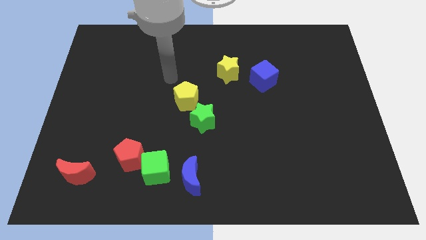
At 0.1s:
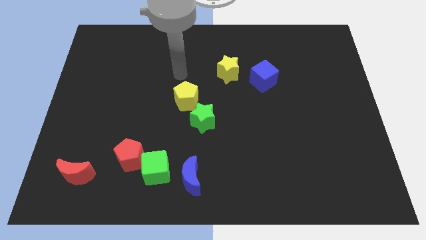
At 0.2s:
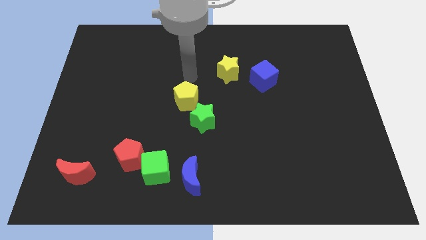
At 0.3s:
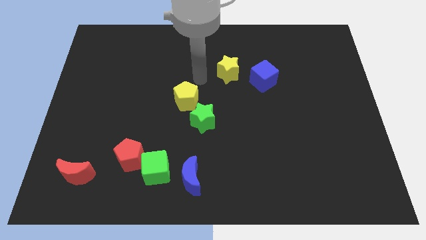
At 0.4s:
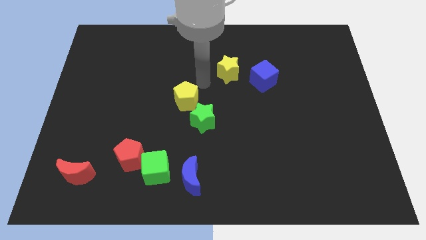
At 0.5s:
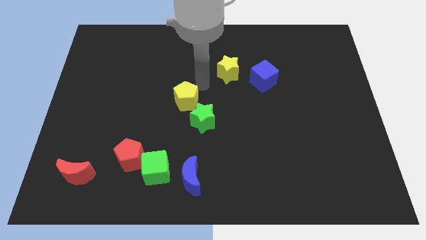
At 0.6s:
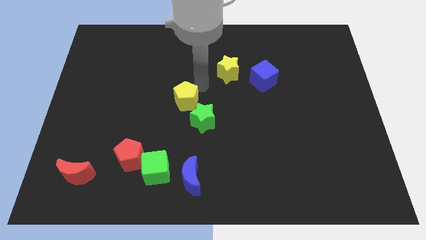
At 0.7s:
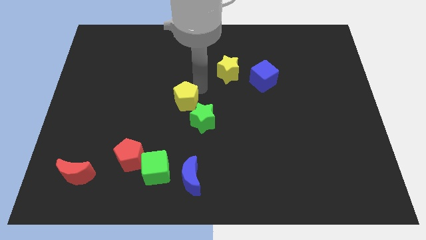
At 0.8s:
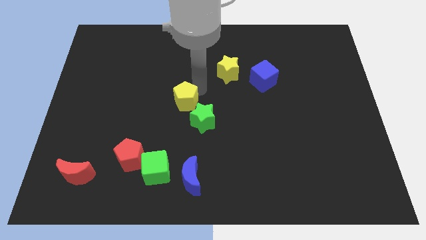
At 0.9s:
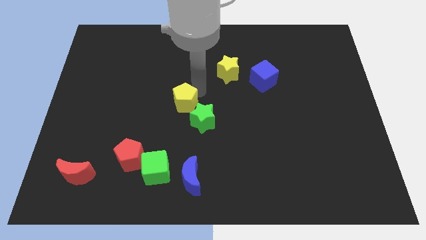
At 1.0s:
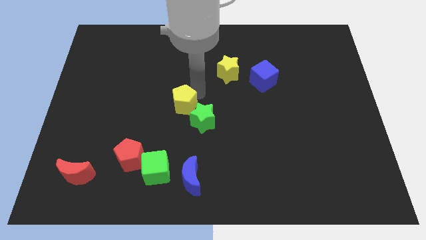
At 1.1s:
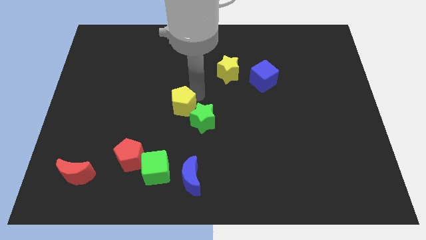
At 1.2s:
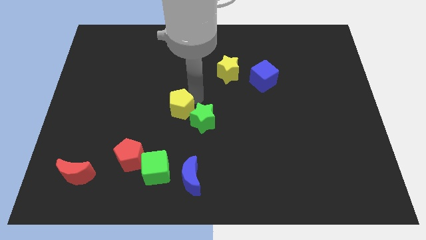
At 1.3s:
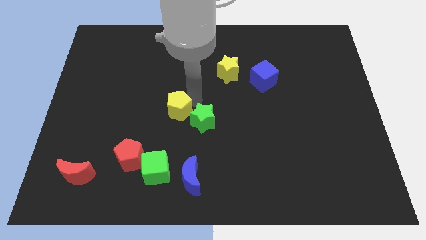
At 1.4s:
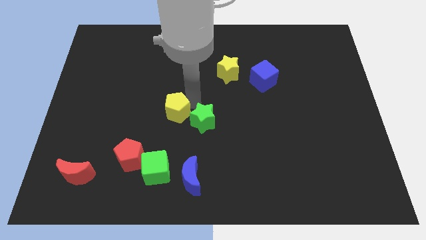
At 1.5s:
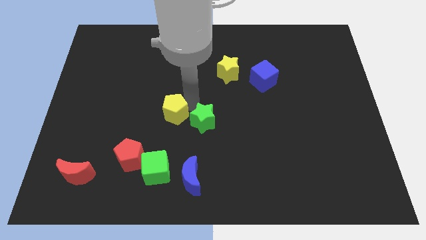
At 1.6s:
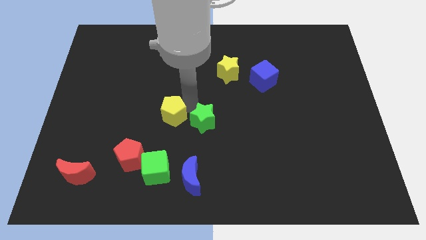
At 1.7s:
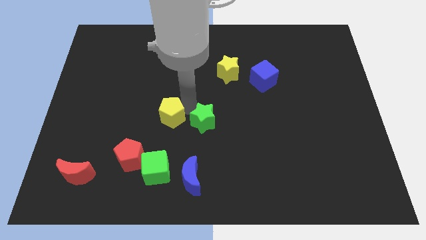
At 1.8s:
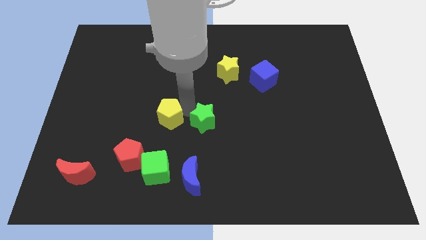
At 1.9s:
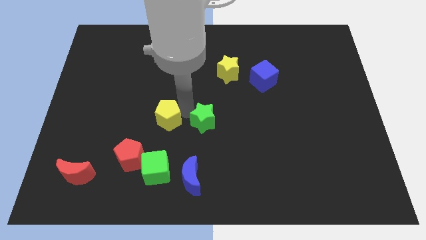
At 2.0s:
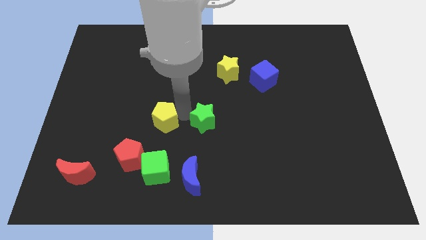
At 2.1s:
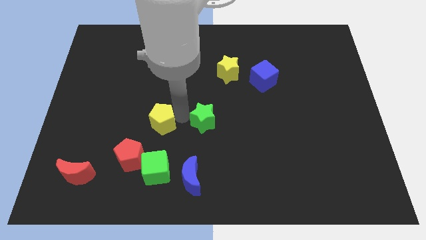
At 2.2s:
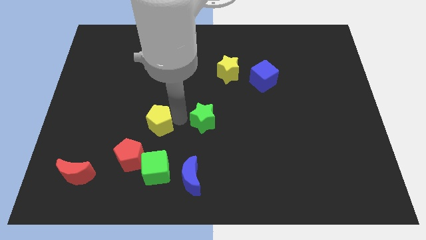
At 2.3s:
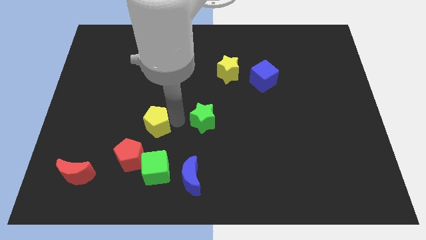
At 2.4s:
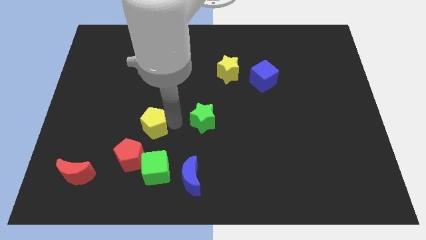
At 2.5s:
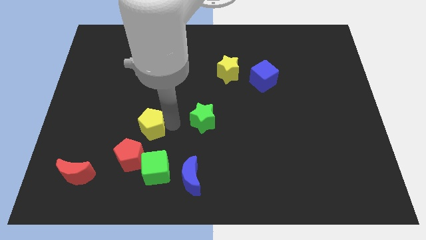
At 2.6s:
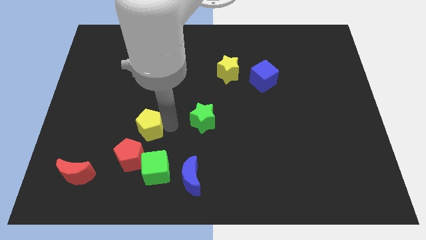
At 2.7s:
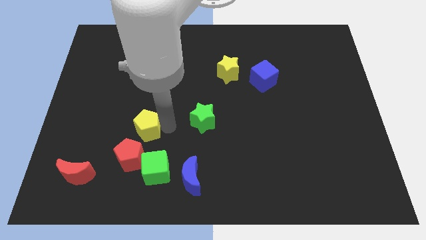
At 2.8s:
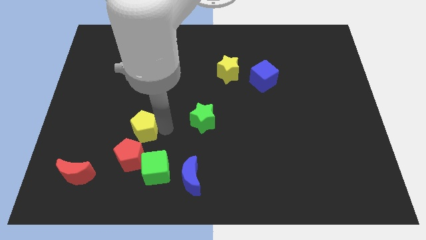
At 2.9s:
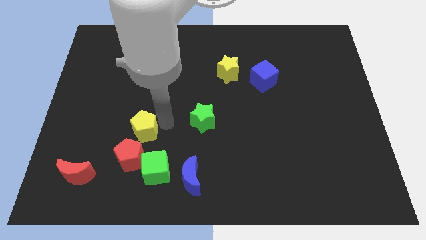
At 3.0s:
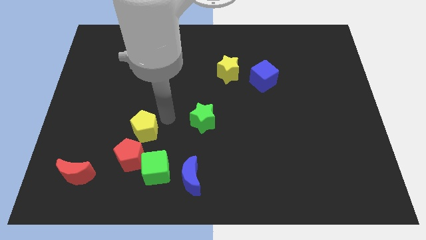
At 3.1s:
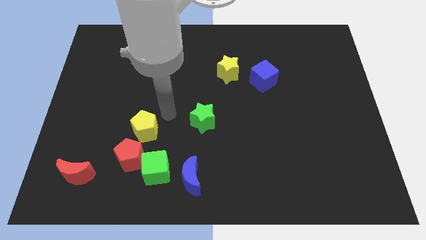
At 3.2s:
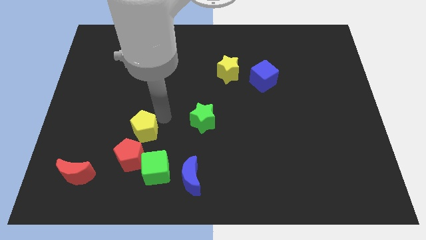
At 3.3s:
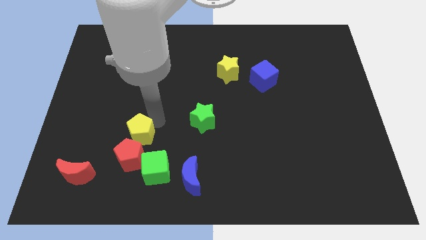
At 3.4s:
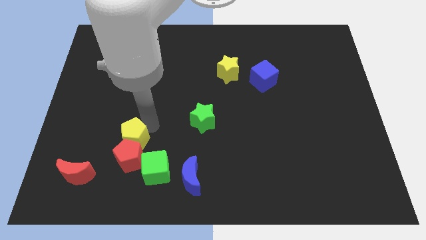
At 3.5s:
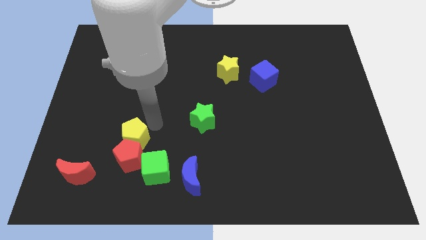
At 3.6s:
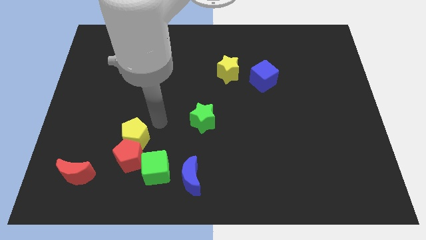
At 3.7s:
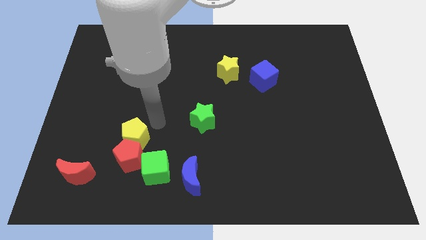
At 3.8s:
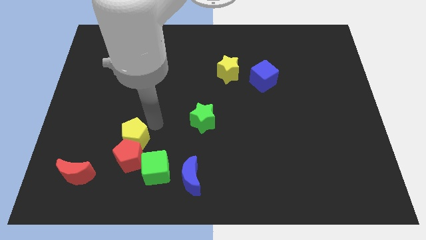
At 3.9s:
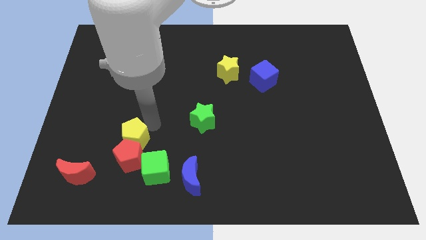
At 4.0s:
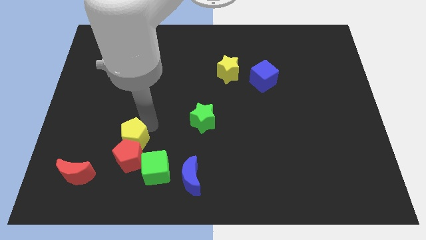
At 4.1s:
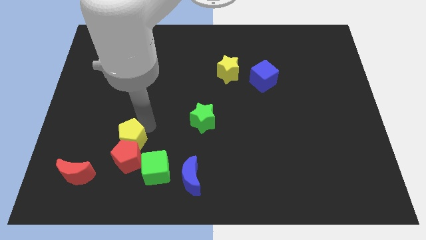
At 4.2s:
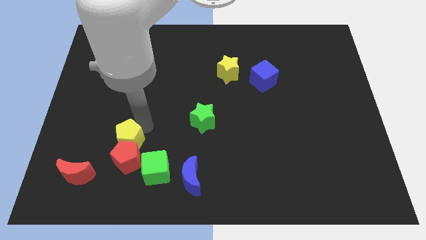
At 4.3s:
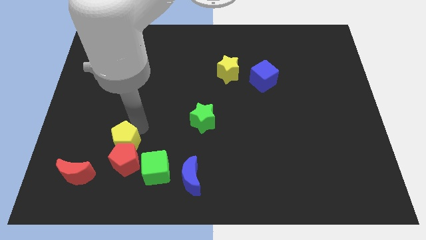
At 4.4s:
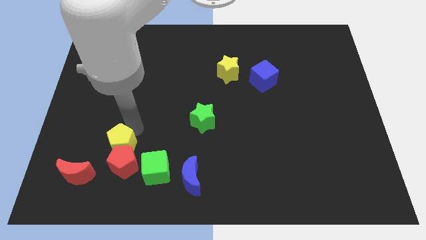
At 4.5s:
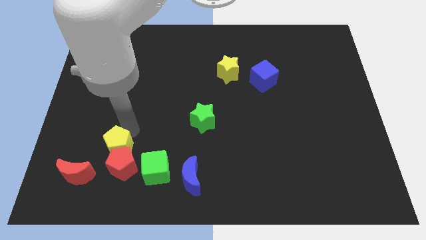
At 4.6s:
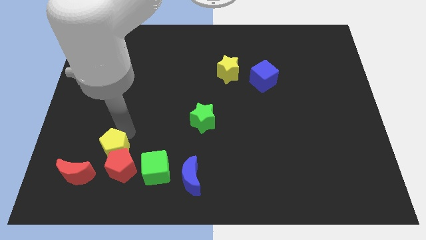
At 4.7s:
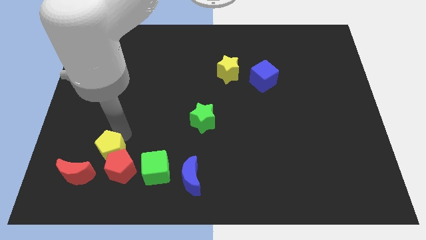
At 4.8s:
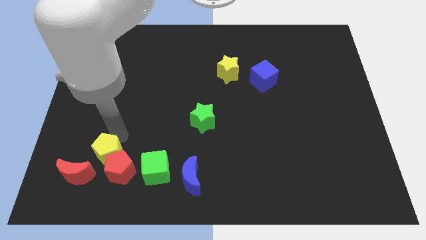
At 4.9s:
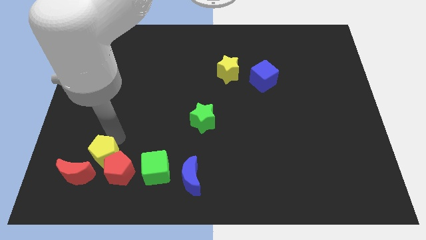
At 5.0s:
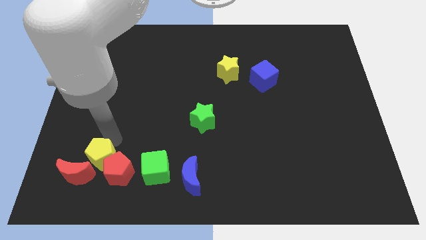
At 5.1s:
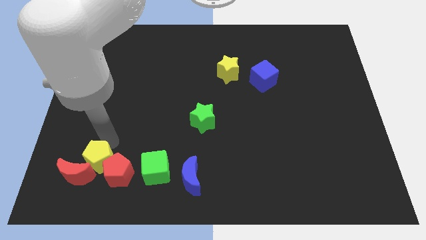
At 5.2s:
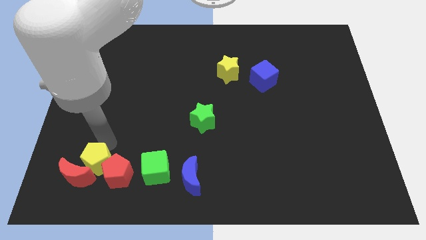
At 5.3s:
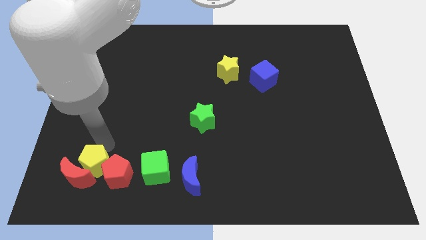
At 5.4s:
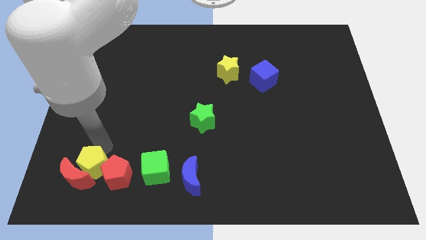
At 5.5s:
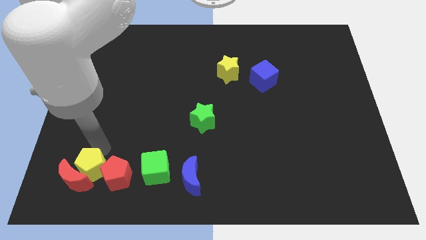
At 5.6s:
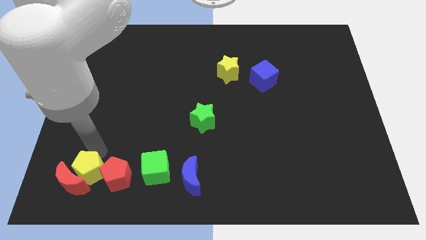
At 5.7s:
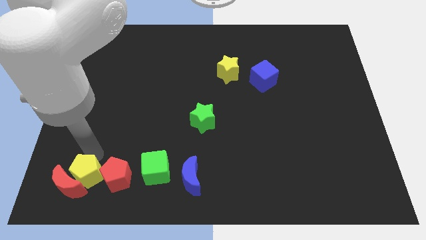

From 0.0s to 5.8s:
put the yellow pentagon diagonally down and to the left of the red pentagon

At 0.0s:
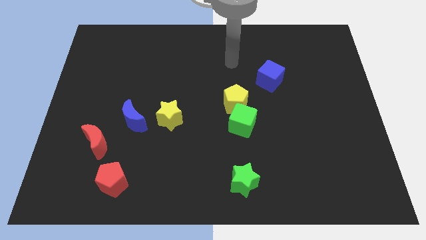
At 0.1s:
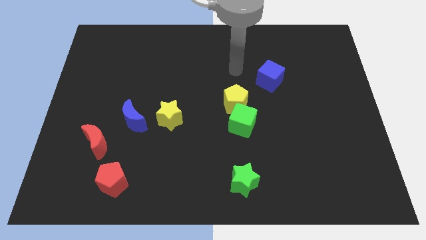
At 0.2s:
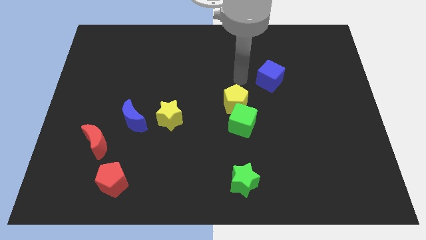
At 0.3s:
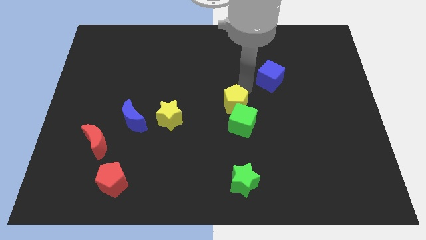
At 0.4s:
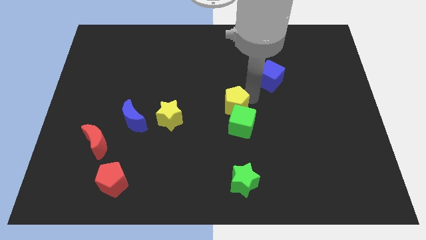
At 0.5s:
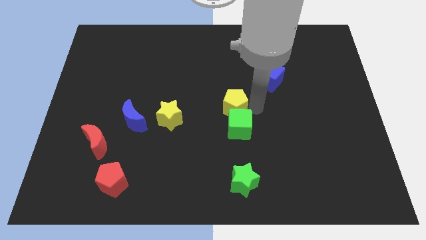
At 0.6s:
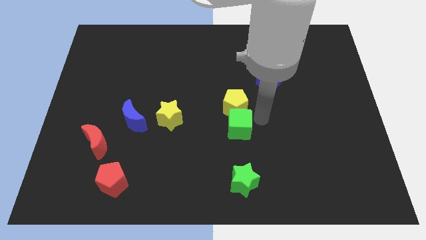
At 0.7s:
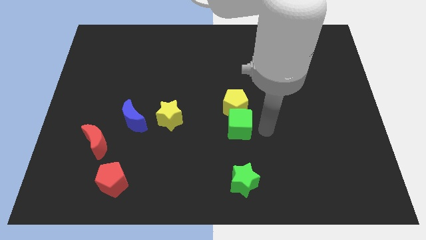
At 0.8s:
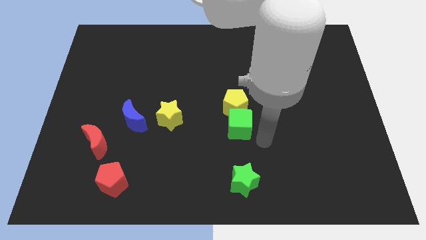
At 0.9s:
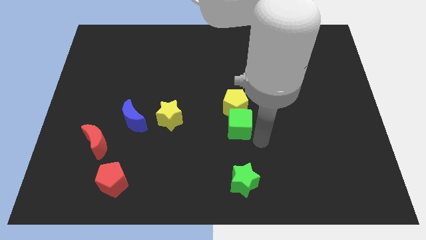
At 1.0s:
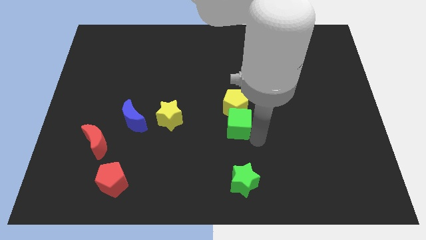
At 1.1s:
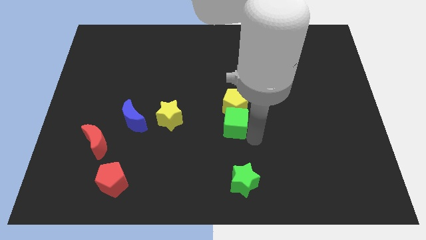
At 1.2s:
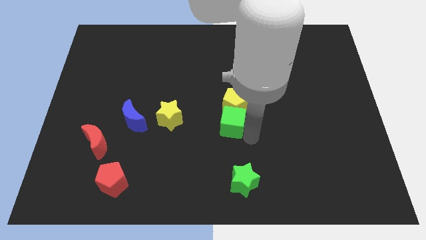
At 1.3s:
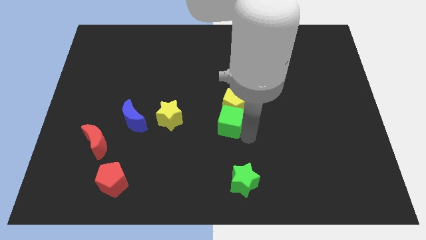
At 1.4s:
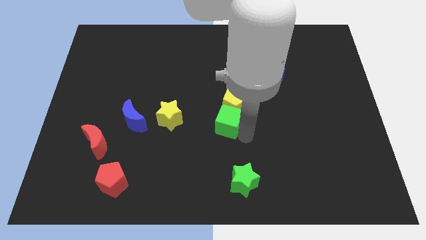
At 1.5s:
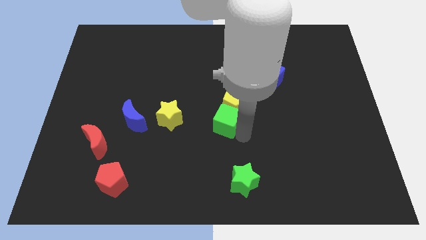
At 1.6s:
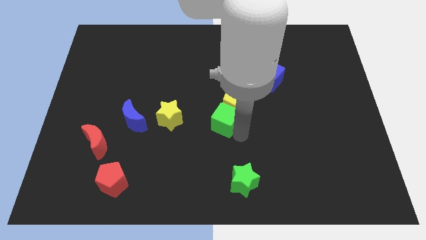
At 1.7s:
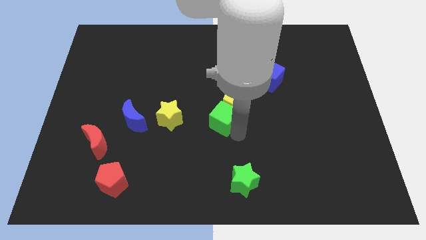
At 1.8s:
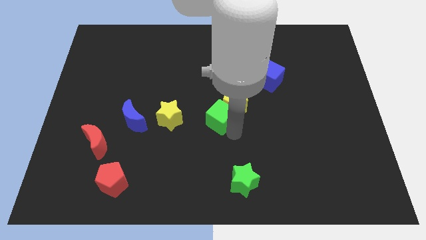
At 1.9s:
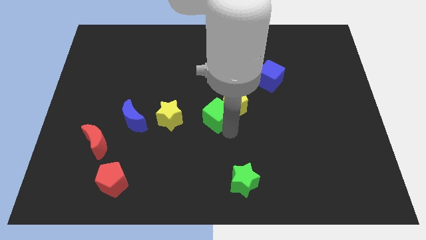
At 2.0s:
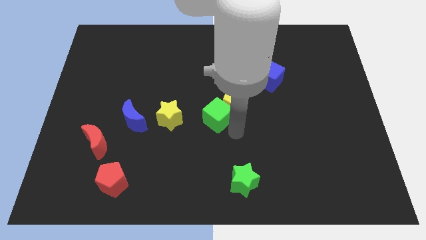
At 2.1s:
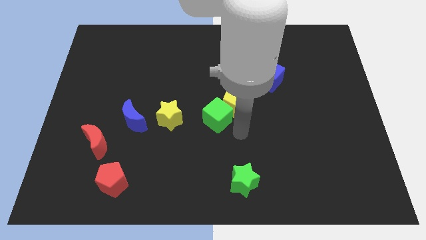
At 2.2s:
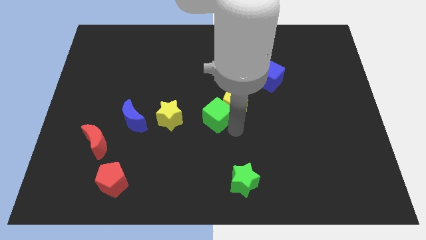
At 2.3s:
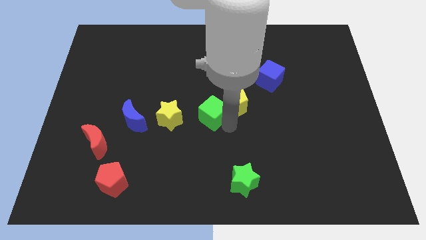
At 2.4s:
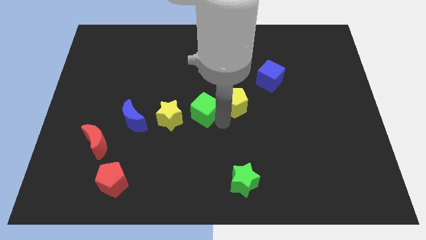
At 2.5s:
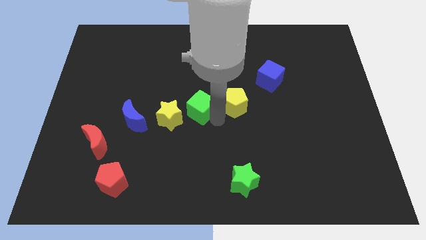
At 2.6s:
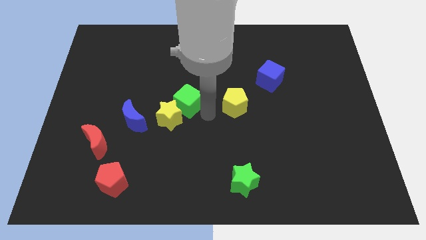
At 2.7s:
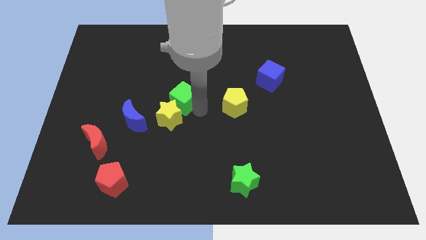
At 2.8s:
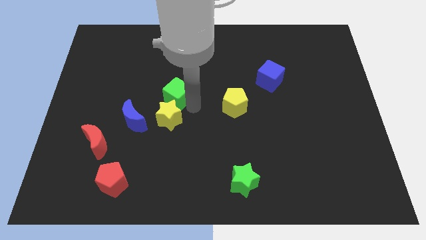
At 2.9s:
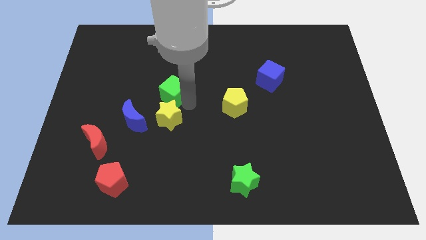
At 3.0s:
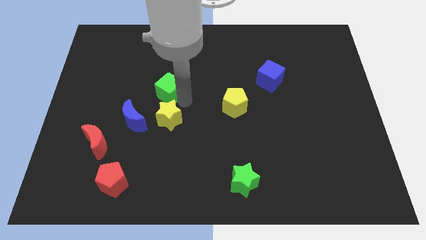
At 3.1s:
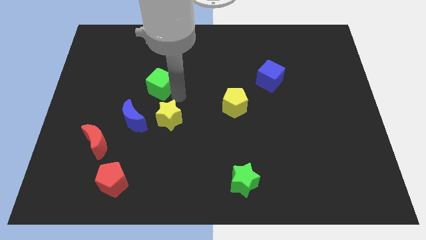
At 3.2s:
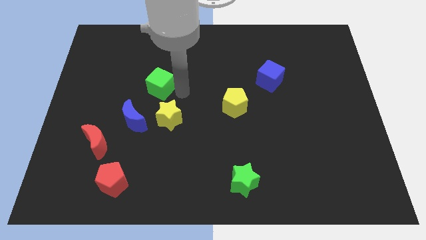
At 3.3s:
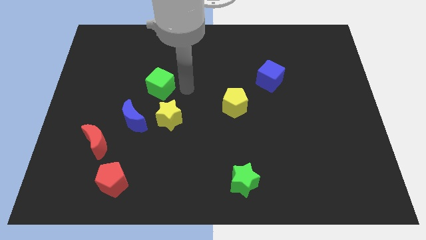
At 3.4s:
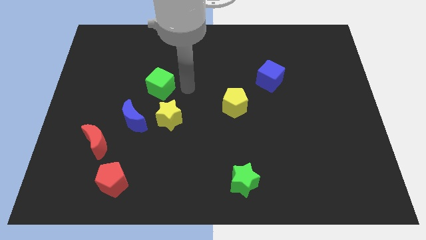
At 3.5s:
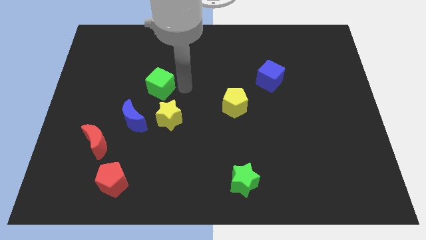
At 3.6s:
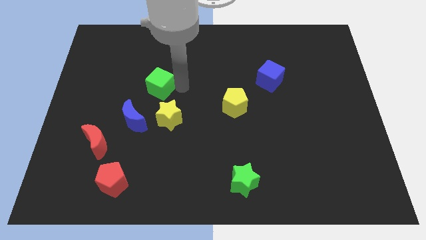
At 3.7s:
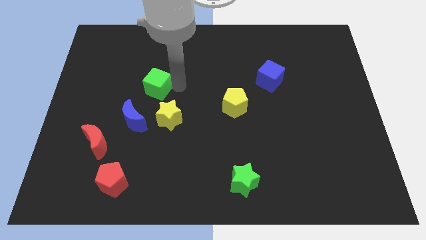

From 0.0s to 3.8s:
put the green cube to the top side of the blue moon
